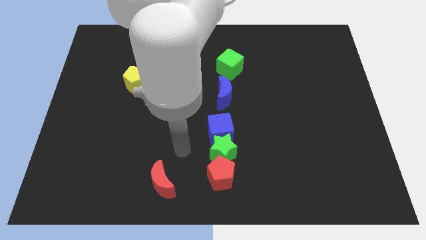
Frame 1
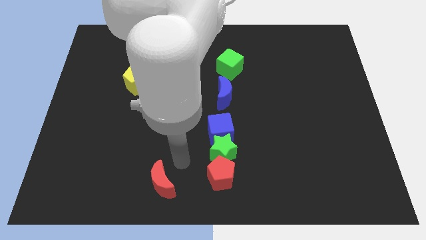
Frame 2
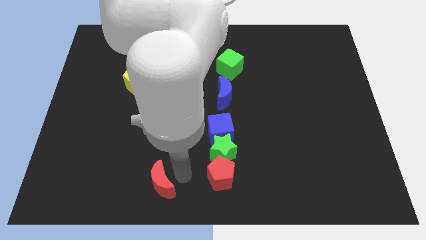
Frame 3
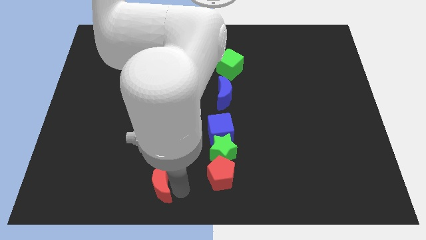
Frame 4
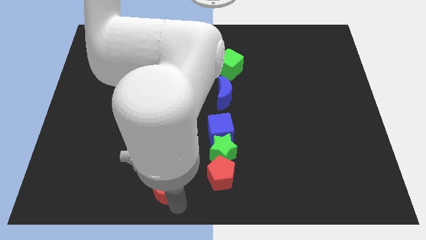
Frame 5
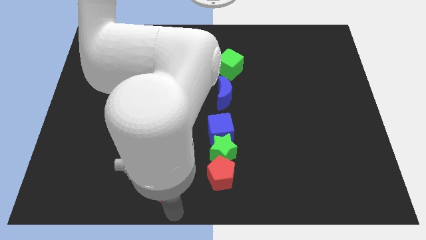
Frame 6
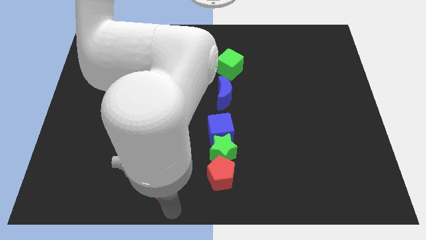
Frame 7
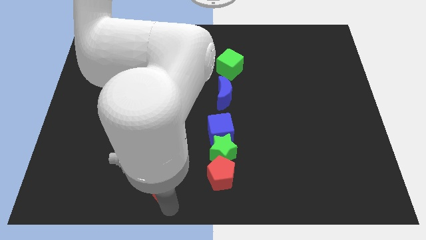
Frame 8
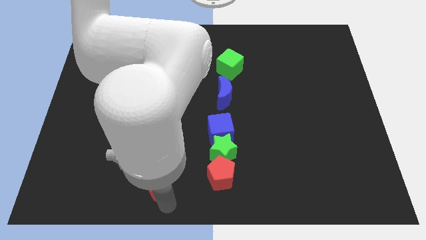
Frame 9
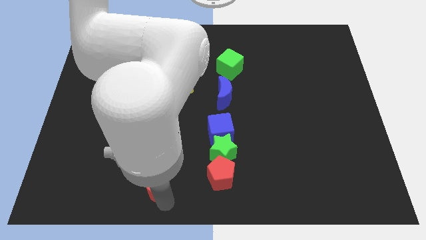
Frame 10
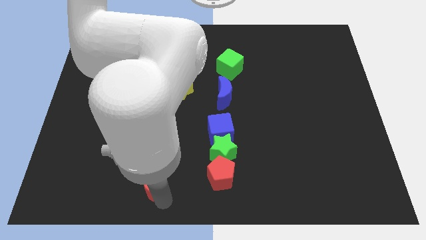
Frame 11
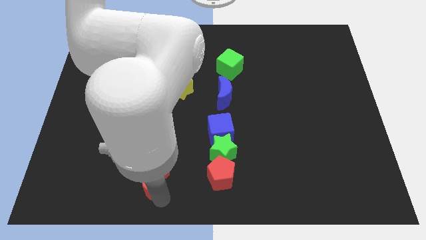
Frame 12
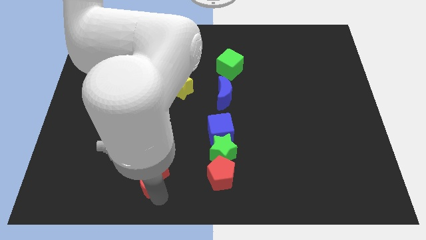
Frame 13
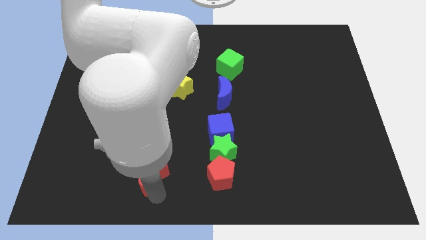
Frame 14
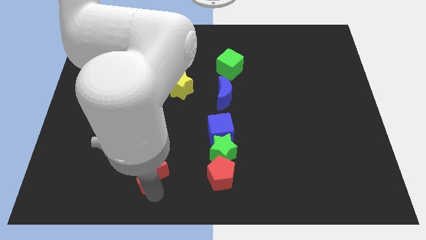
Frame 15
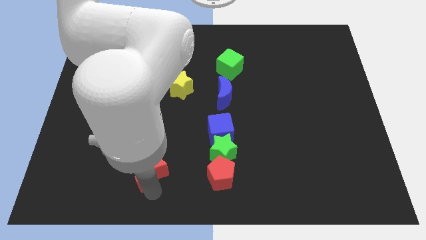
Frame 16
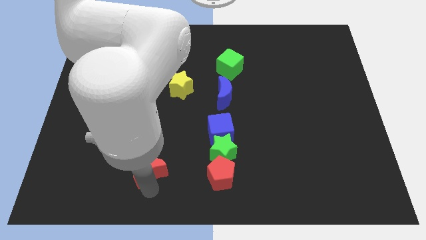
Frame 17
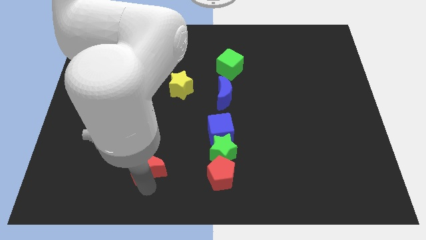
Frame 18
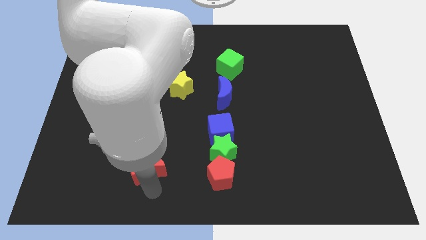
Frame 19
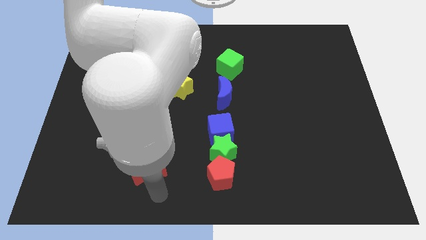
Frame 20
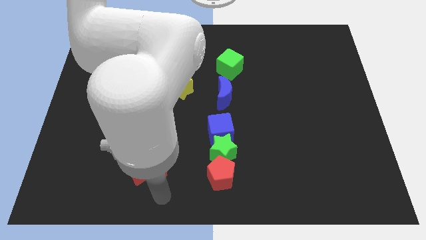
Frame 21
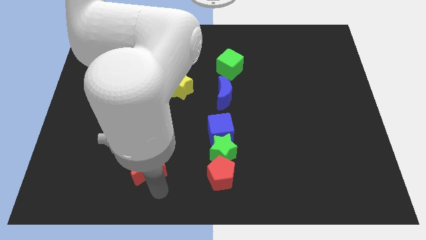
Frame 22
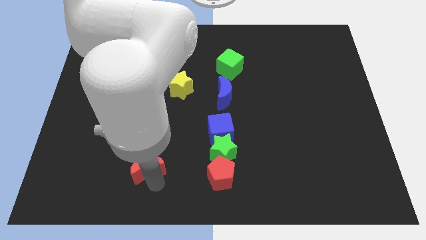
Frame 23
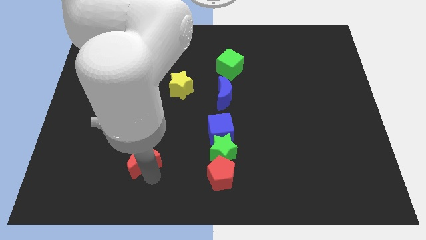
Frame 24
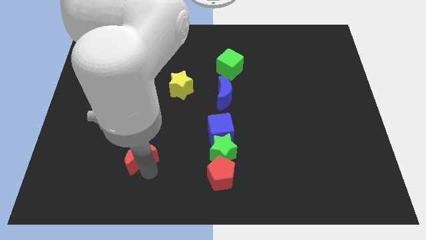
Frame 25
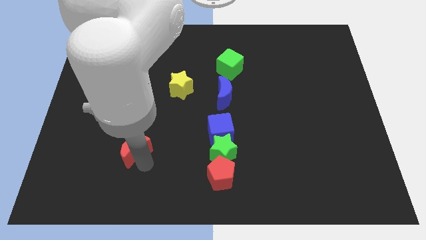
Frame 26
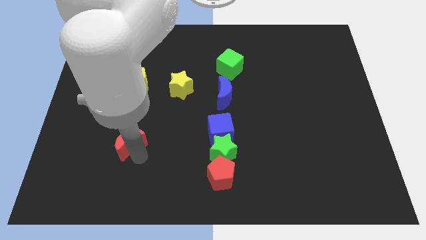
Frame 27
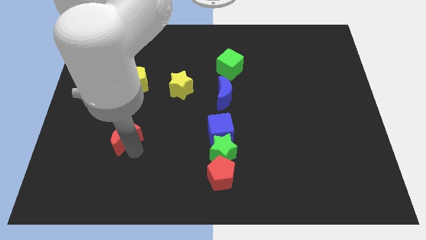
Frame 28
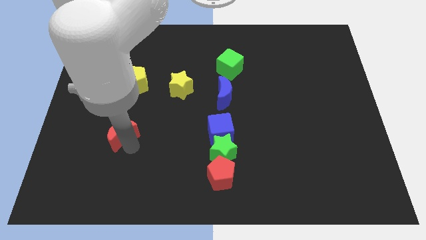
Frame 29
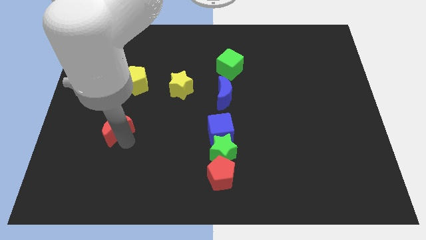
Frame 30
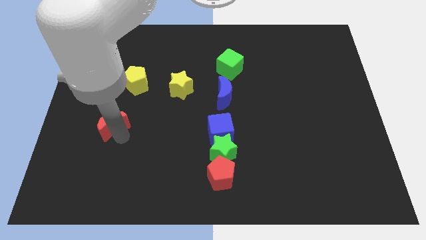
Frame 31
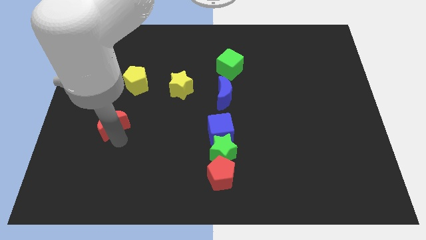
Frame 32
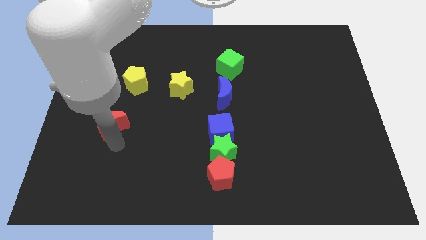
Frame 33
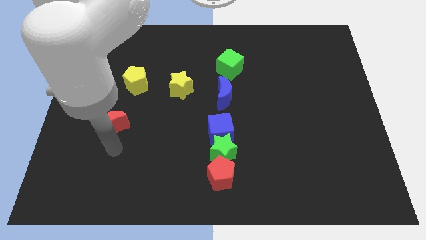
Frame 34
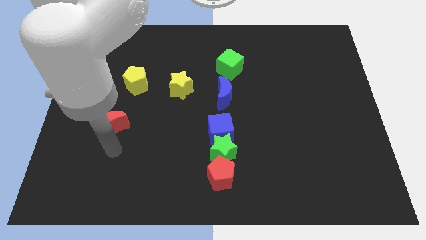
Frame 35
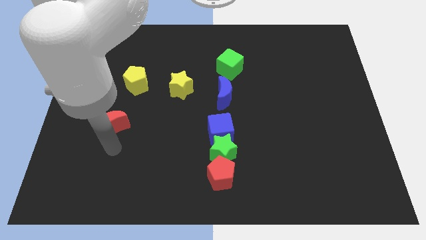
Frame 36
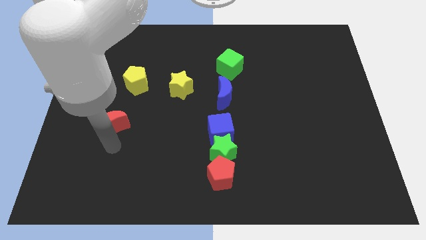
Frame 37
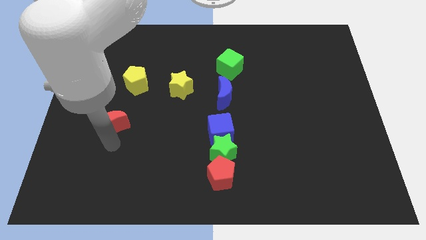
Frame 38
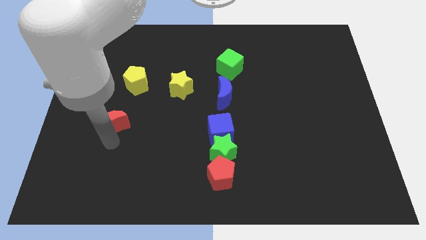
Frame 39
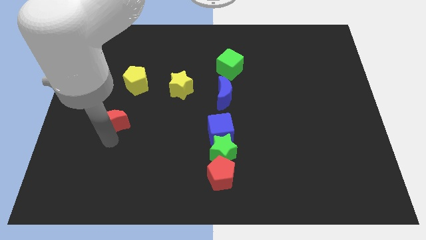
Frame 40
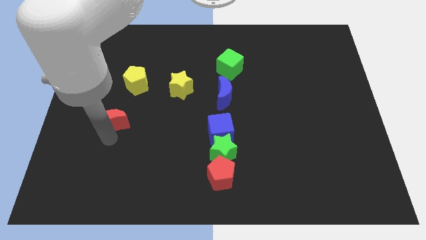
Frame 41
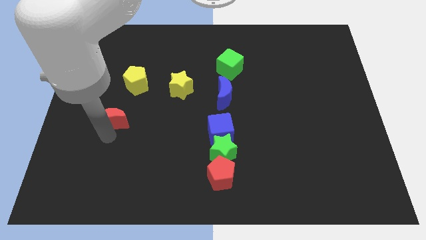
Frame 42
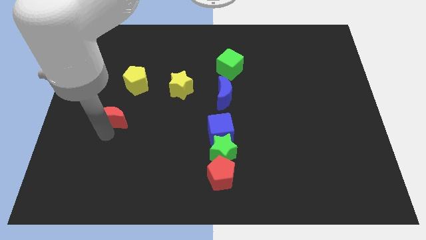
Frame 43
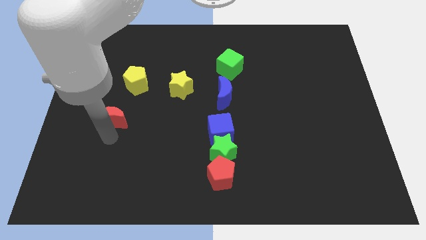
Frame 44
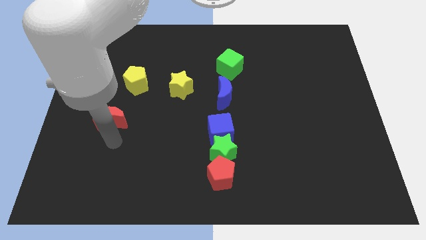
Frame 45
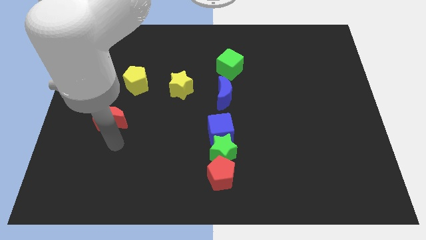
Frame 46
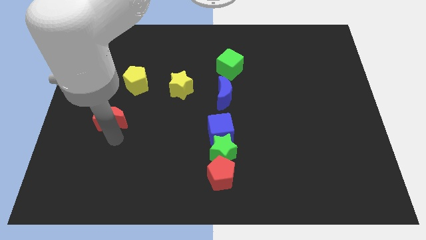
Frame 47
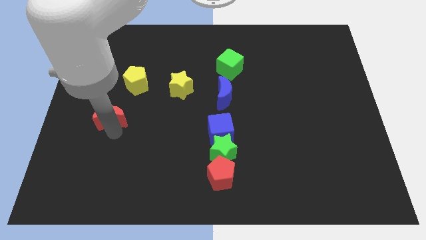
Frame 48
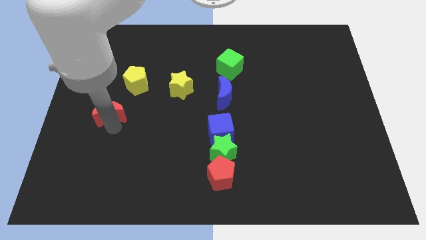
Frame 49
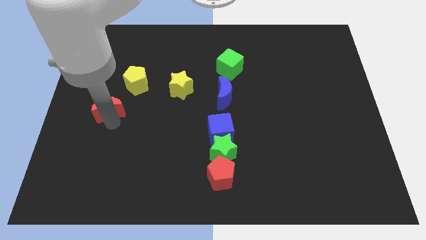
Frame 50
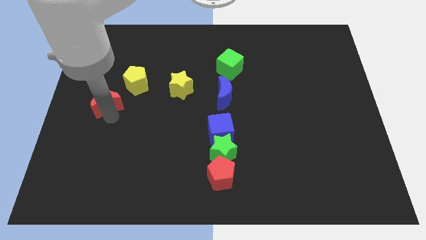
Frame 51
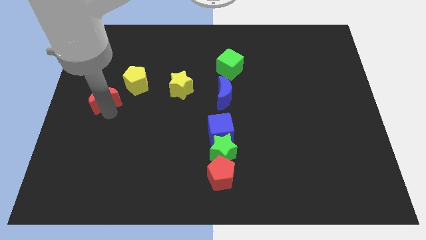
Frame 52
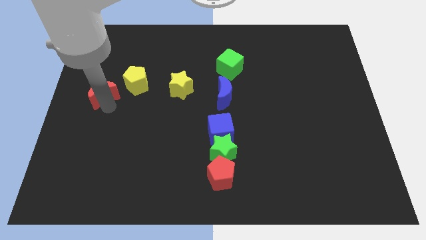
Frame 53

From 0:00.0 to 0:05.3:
move the red moon to the left of the yellow pentagon

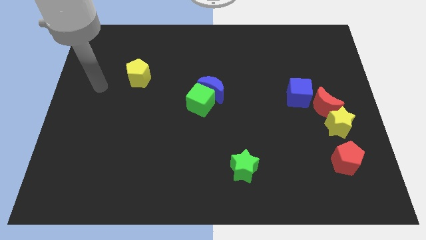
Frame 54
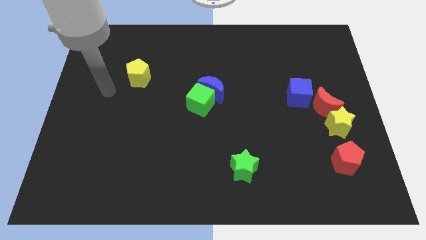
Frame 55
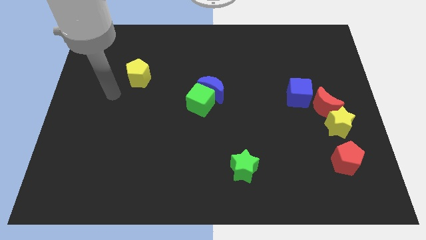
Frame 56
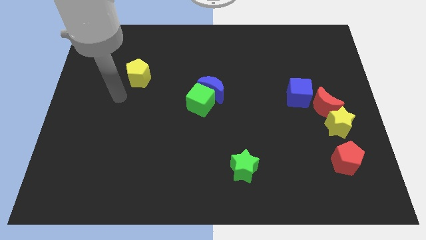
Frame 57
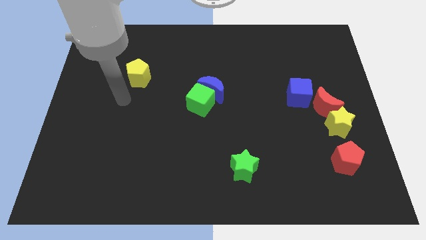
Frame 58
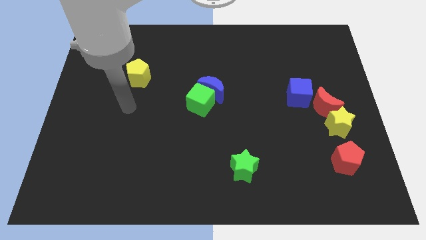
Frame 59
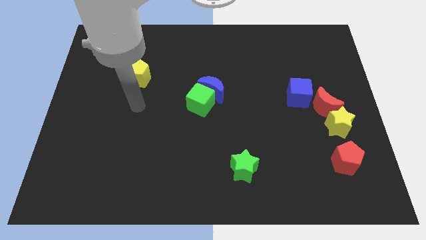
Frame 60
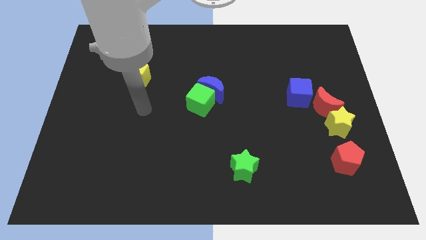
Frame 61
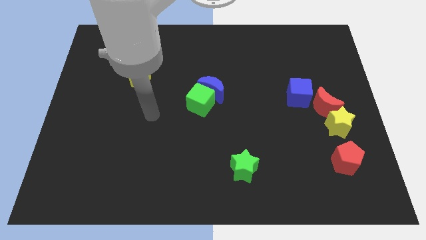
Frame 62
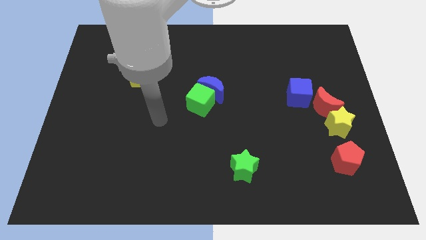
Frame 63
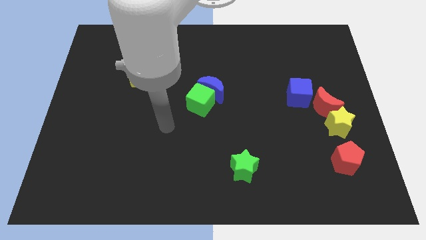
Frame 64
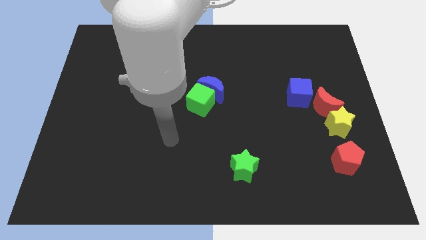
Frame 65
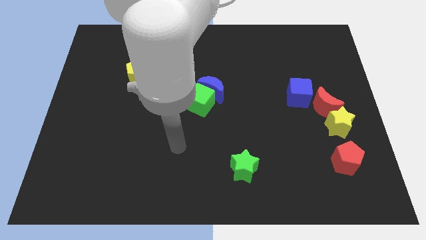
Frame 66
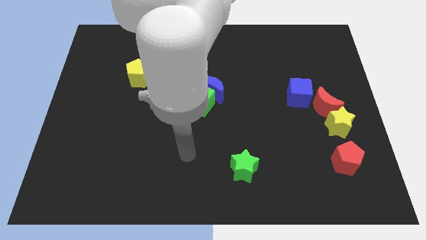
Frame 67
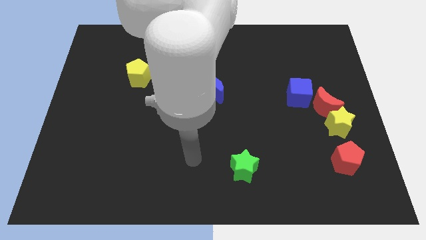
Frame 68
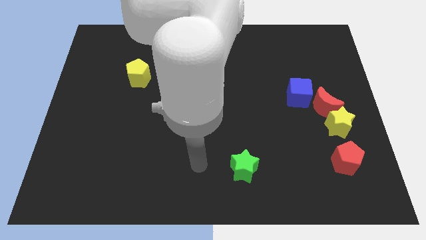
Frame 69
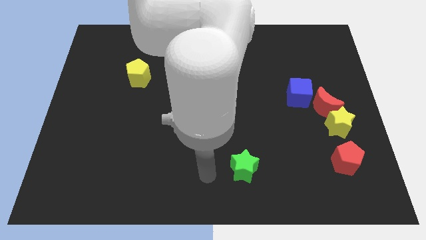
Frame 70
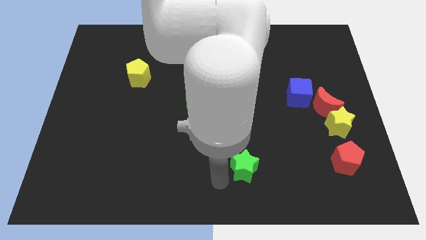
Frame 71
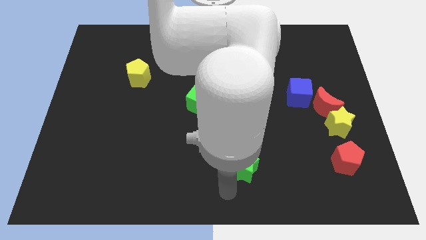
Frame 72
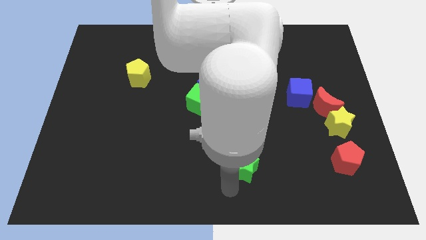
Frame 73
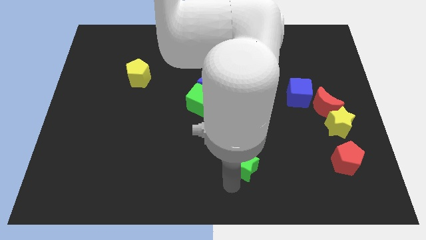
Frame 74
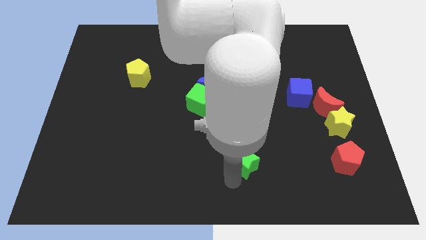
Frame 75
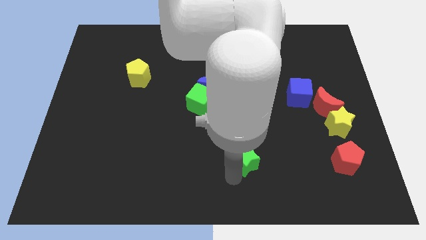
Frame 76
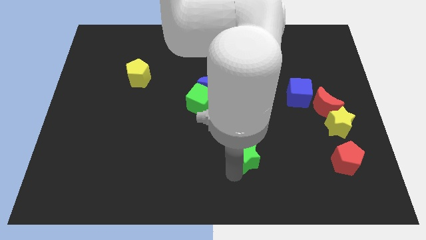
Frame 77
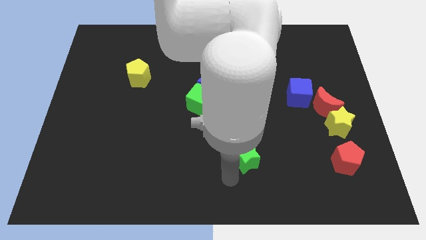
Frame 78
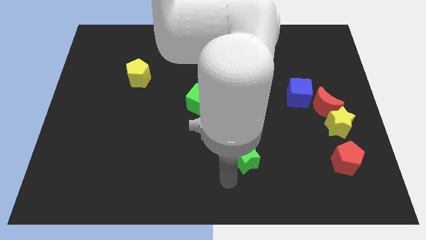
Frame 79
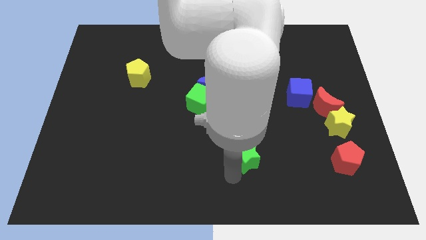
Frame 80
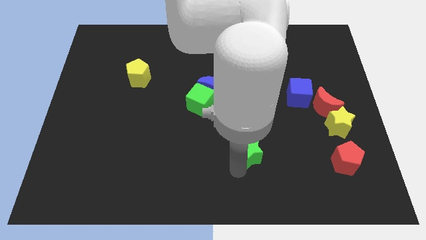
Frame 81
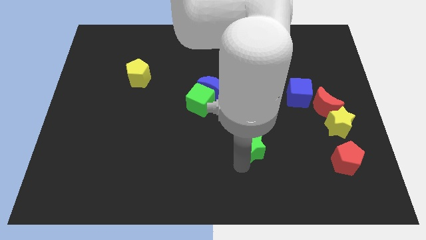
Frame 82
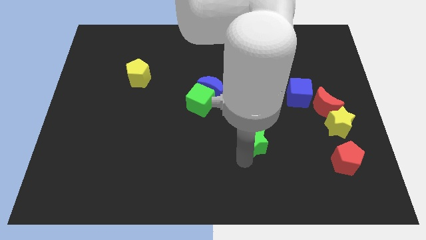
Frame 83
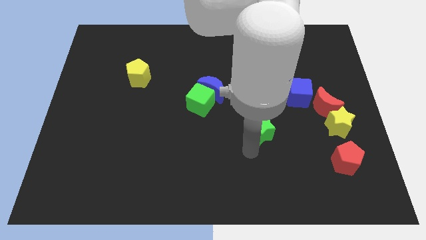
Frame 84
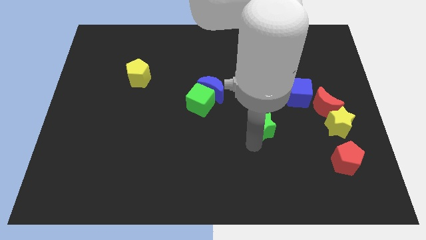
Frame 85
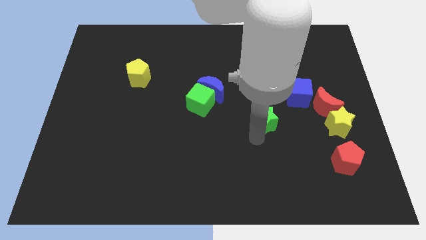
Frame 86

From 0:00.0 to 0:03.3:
put the green star diagonally down and to the left of the blue cube
